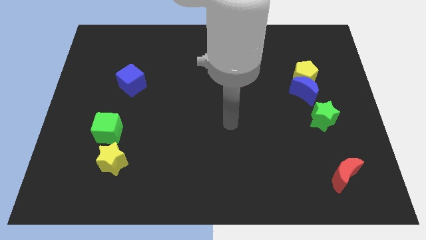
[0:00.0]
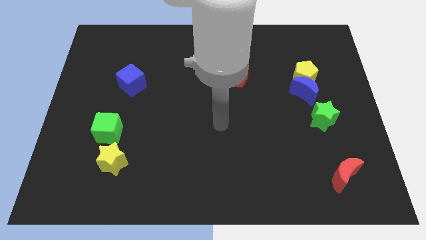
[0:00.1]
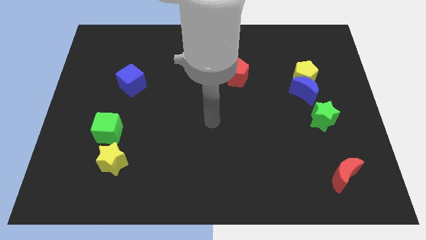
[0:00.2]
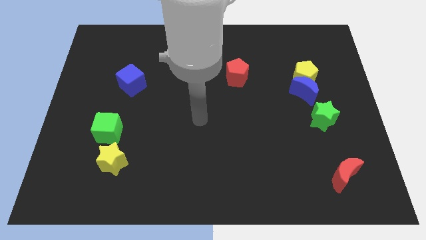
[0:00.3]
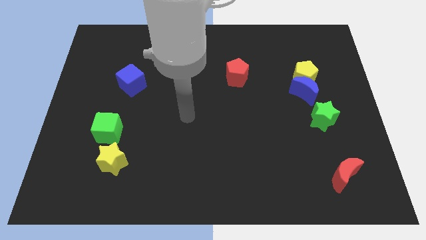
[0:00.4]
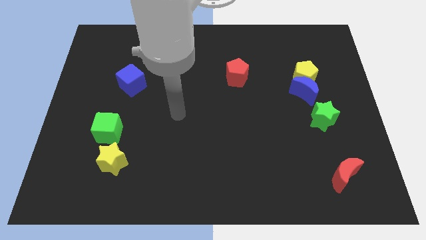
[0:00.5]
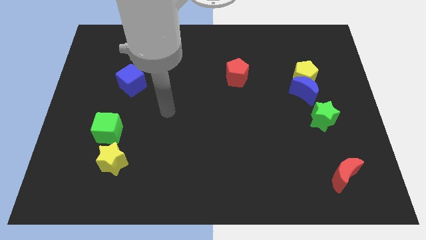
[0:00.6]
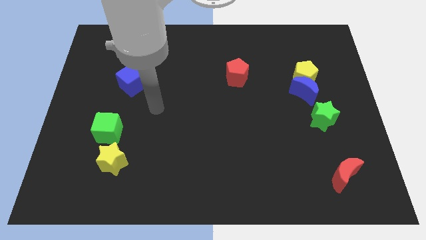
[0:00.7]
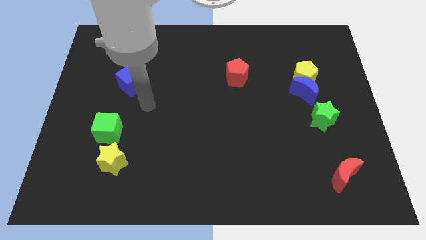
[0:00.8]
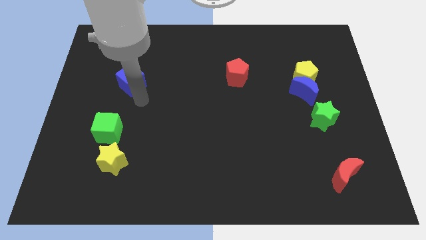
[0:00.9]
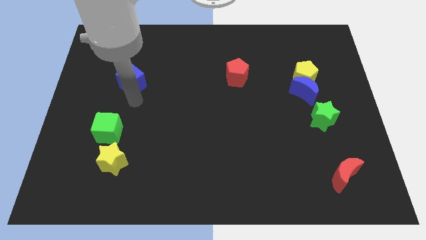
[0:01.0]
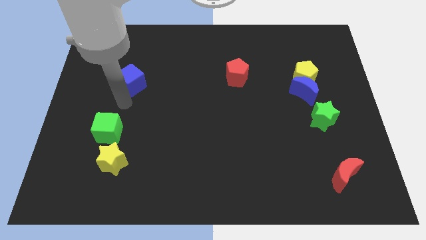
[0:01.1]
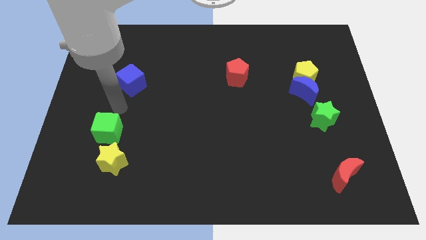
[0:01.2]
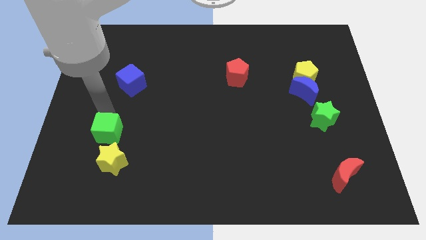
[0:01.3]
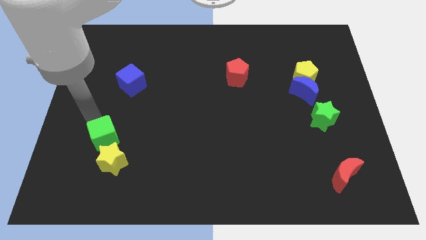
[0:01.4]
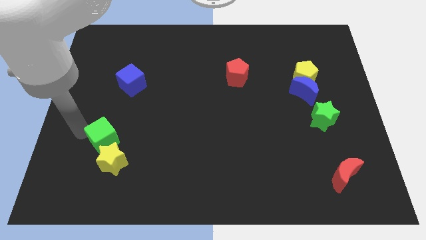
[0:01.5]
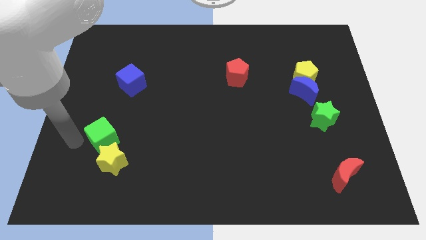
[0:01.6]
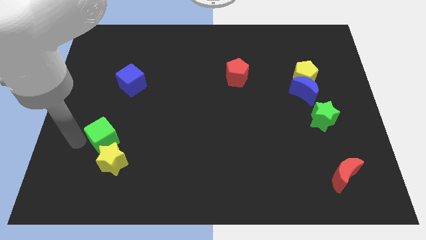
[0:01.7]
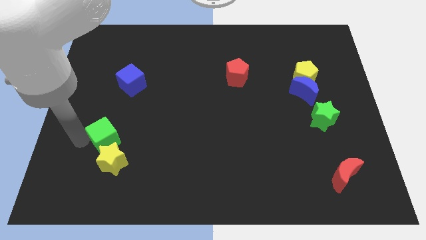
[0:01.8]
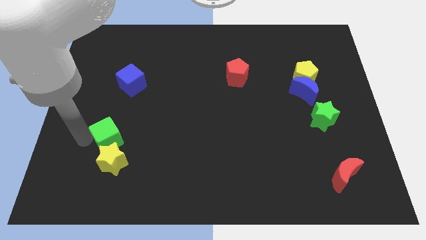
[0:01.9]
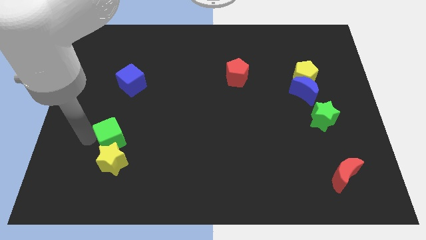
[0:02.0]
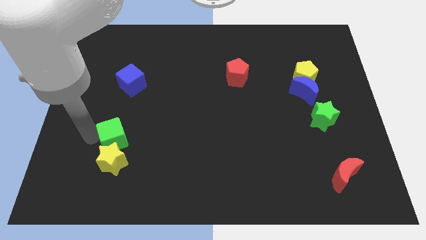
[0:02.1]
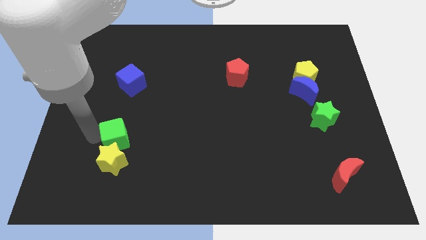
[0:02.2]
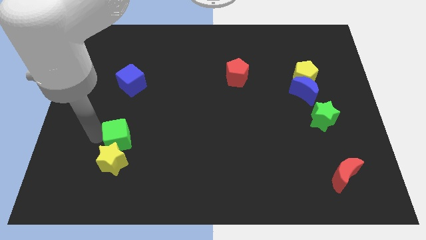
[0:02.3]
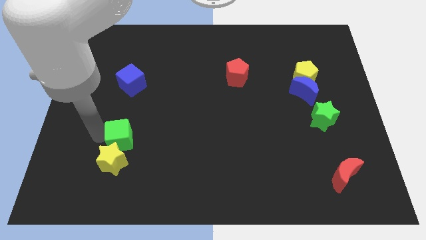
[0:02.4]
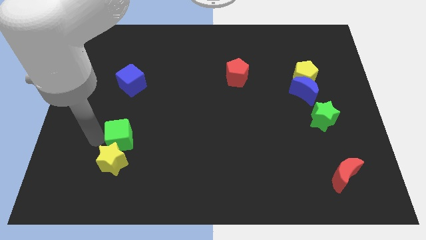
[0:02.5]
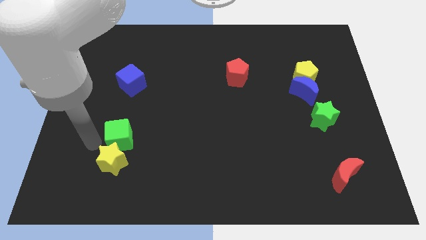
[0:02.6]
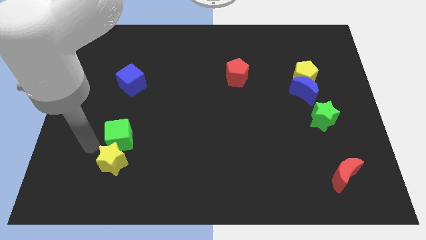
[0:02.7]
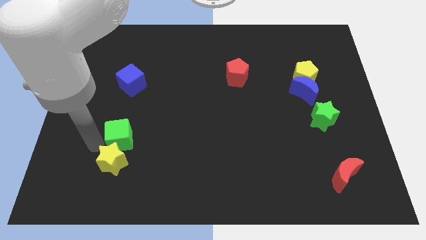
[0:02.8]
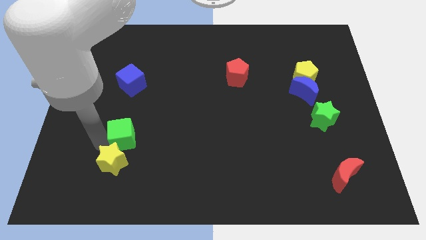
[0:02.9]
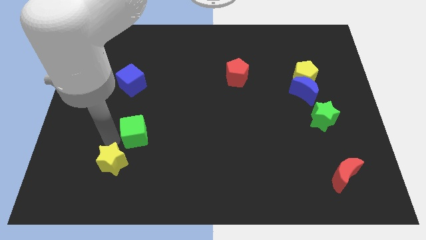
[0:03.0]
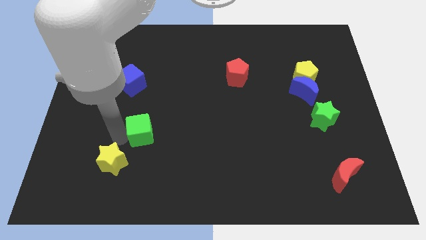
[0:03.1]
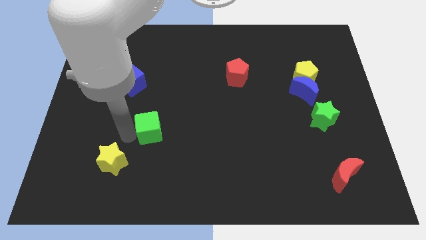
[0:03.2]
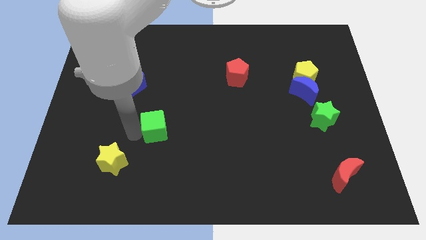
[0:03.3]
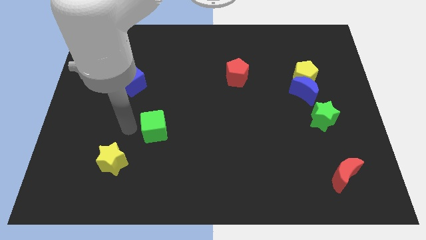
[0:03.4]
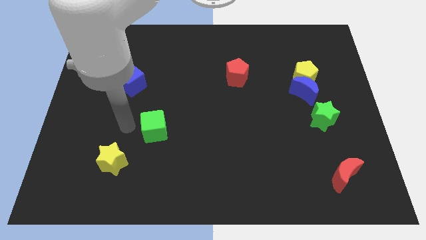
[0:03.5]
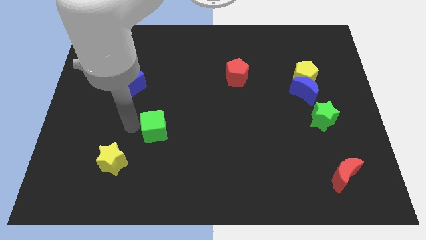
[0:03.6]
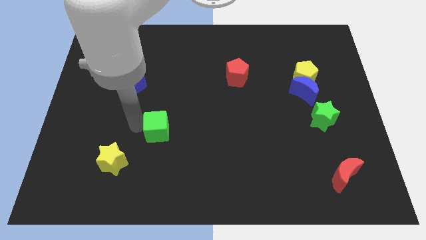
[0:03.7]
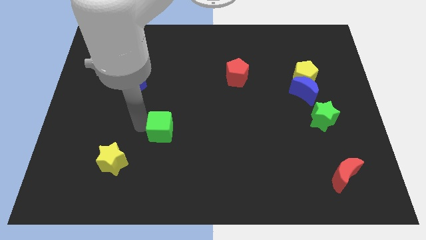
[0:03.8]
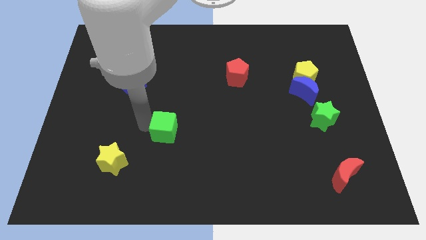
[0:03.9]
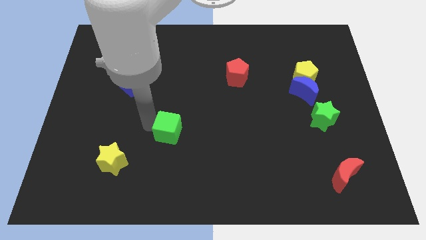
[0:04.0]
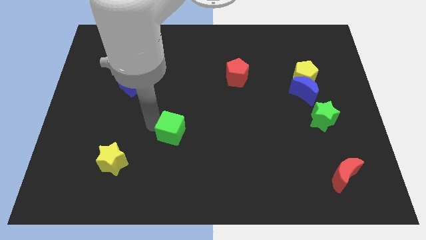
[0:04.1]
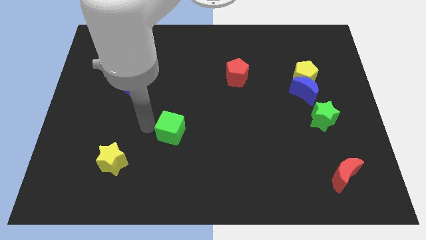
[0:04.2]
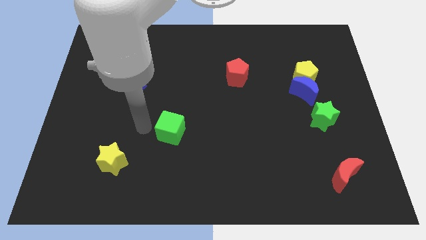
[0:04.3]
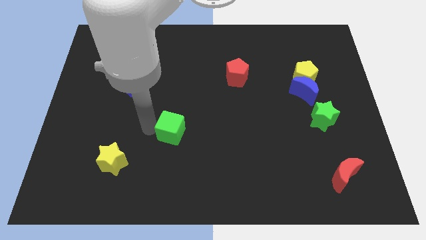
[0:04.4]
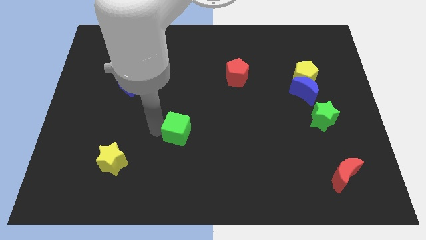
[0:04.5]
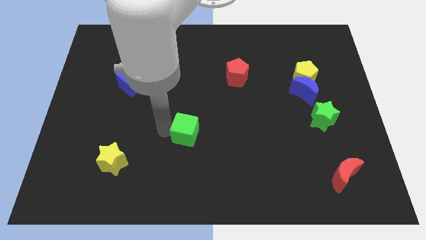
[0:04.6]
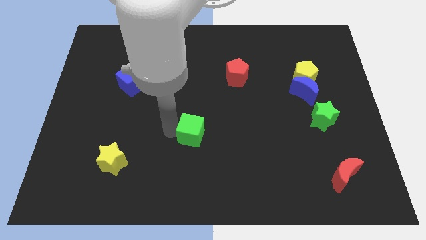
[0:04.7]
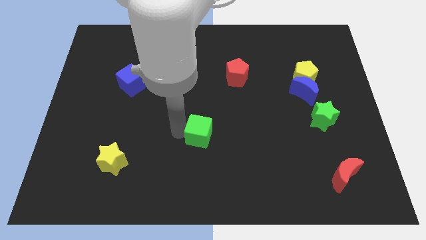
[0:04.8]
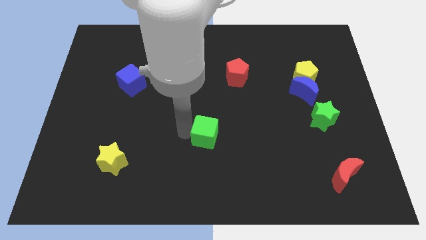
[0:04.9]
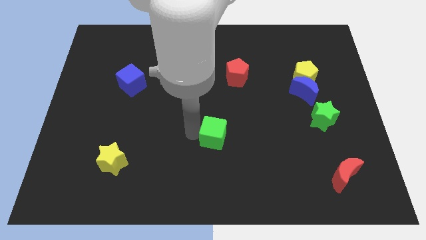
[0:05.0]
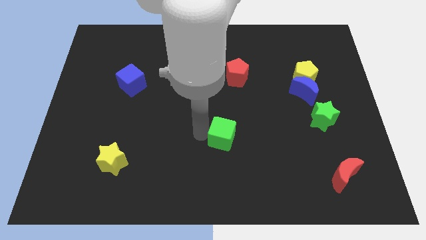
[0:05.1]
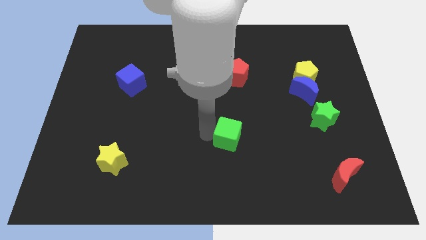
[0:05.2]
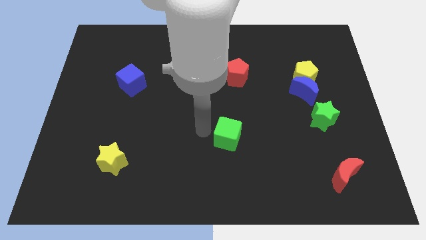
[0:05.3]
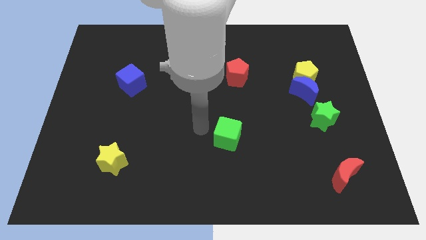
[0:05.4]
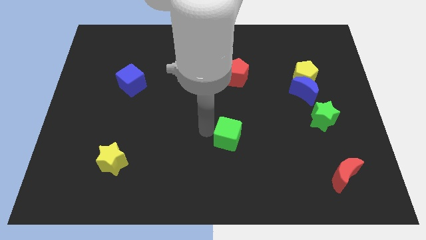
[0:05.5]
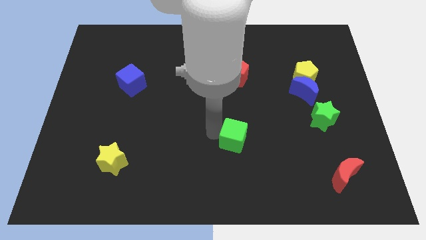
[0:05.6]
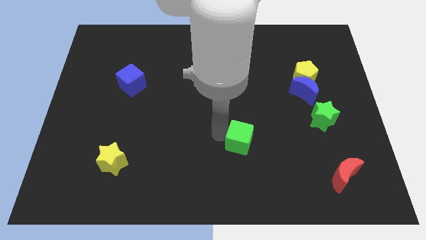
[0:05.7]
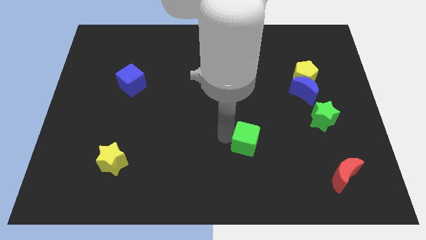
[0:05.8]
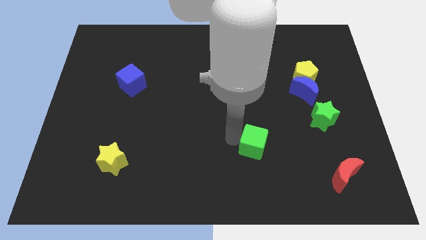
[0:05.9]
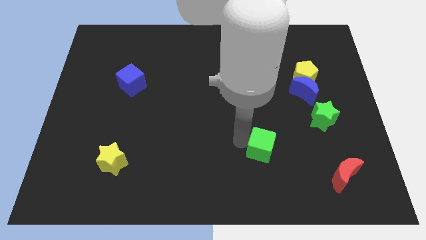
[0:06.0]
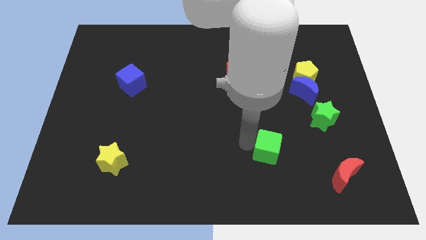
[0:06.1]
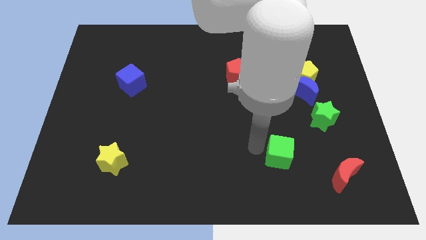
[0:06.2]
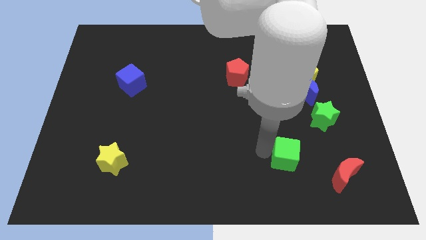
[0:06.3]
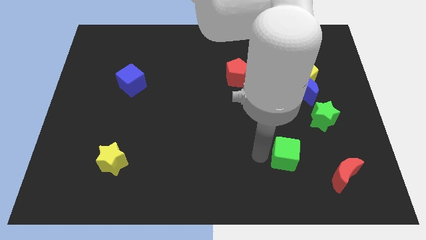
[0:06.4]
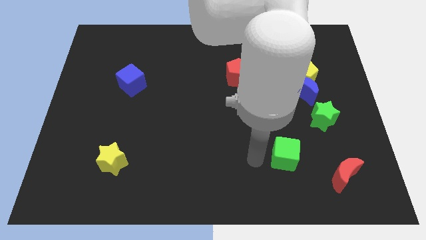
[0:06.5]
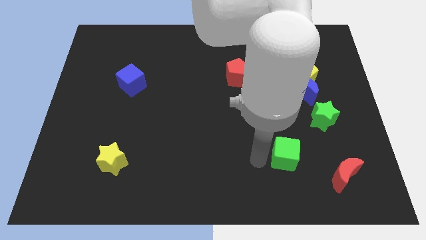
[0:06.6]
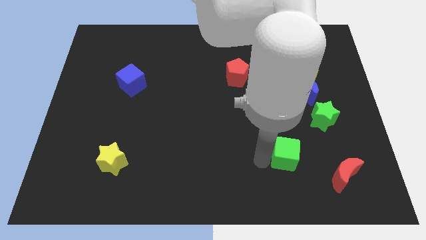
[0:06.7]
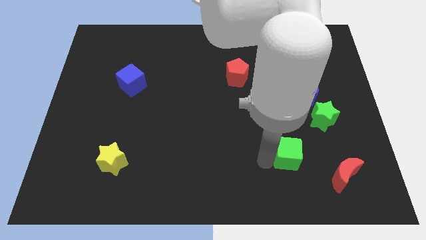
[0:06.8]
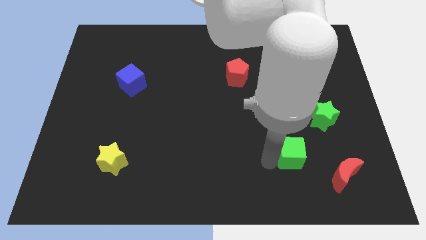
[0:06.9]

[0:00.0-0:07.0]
push the green cube to the top left of the red moon
